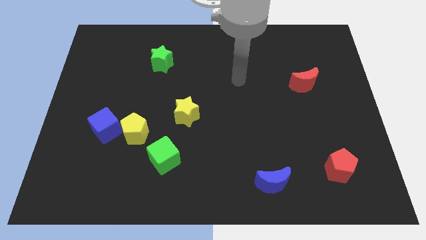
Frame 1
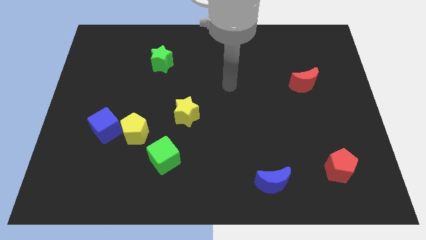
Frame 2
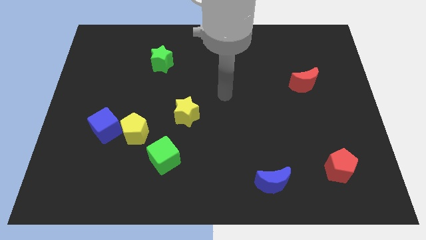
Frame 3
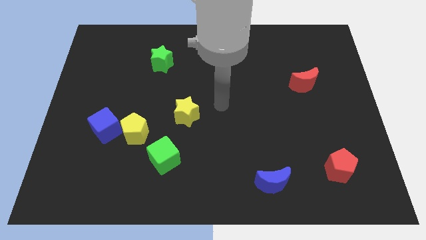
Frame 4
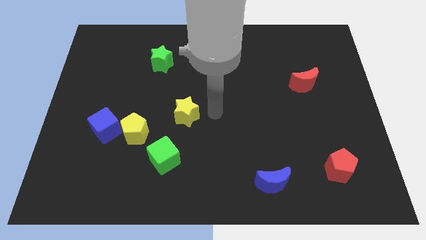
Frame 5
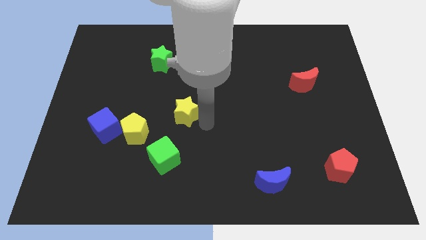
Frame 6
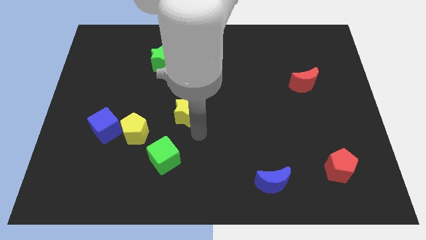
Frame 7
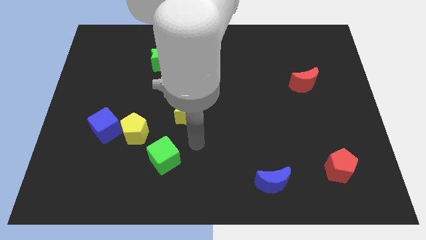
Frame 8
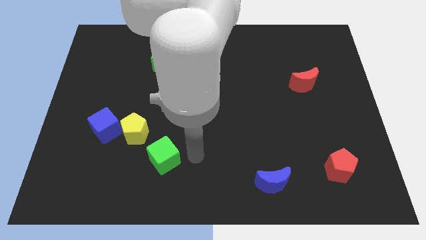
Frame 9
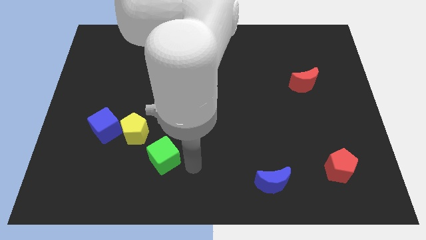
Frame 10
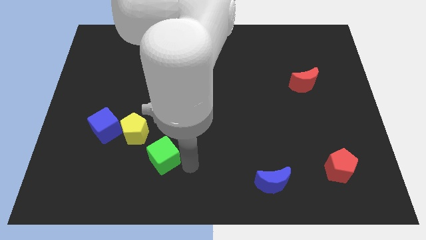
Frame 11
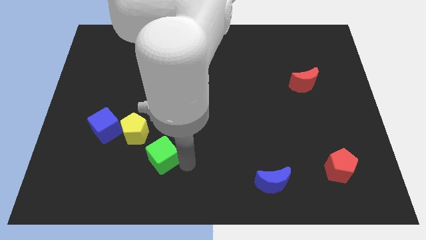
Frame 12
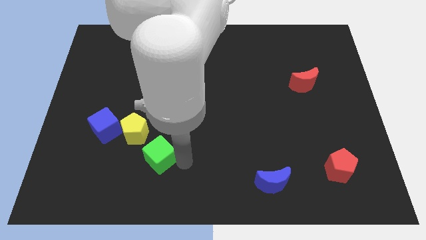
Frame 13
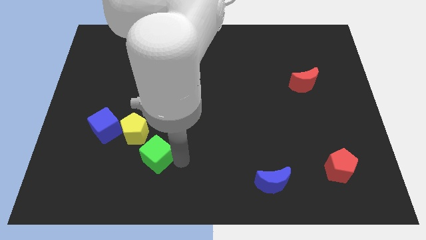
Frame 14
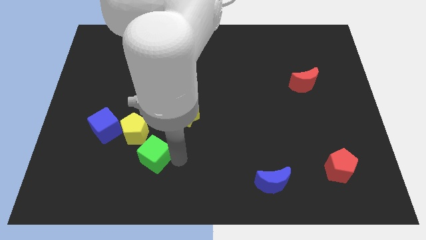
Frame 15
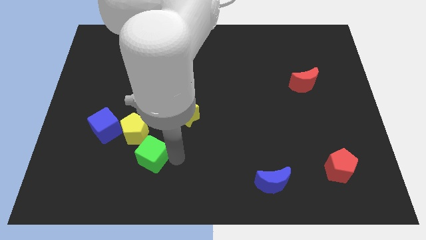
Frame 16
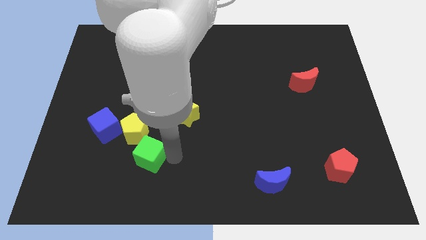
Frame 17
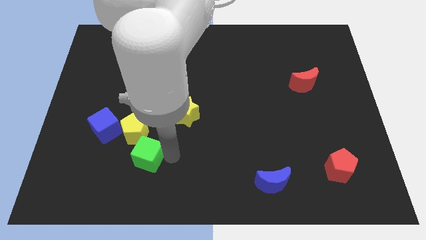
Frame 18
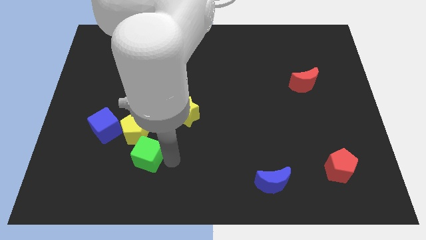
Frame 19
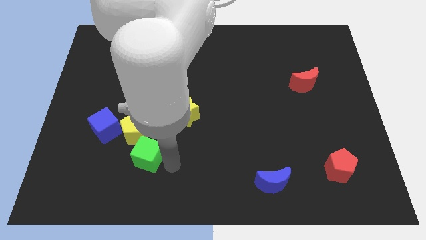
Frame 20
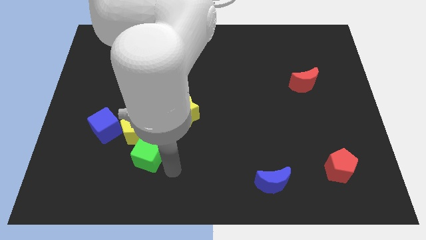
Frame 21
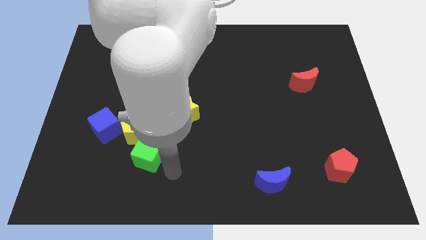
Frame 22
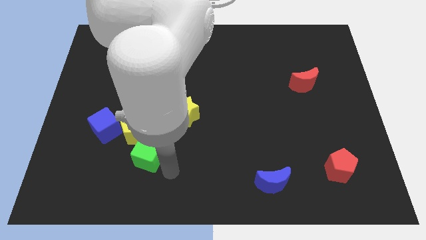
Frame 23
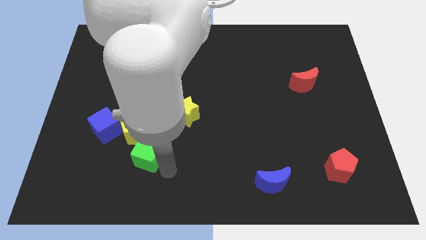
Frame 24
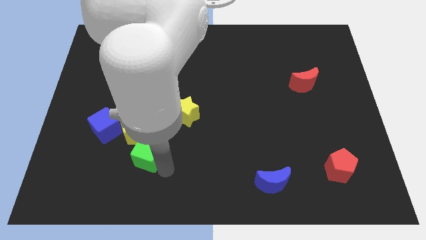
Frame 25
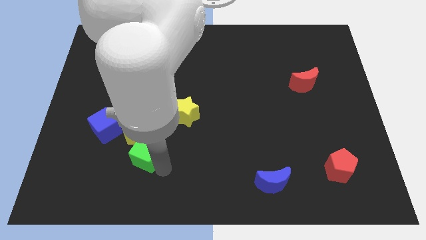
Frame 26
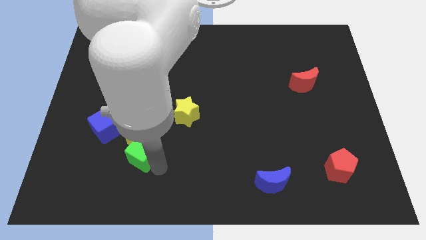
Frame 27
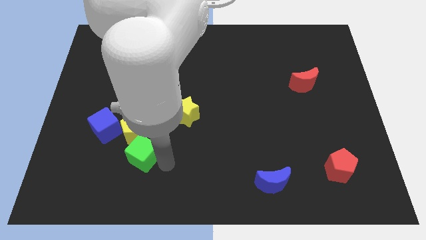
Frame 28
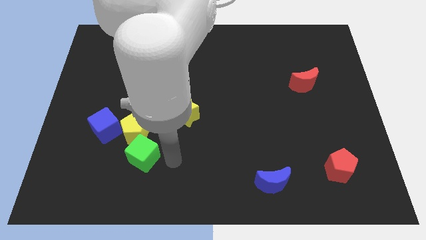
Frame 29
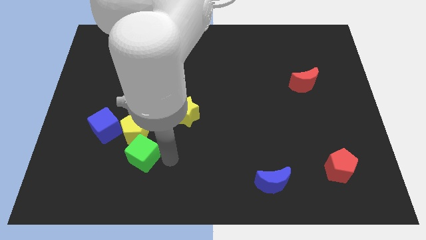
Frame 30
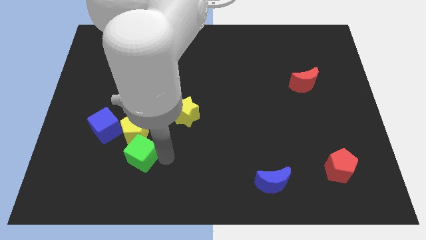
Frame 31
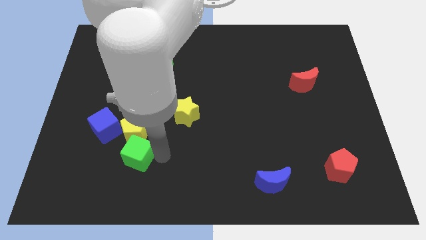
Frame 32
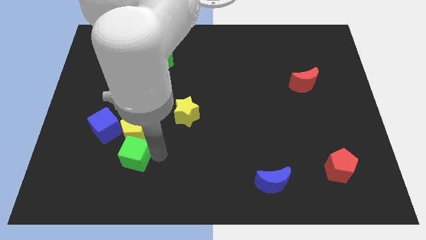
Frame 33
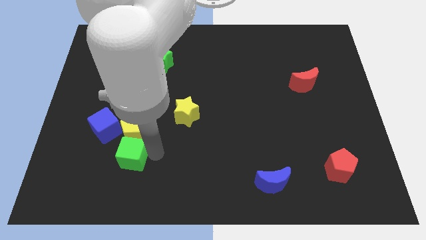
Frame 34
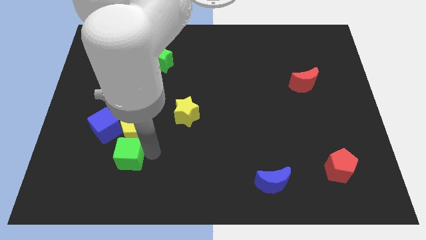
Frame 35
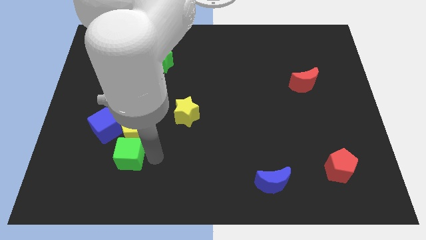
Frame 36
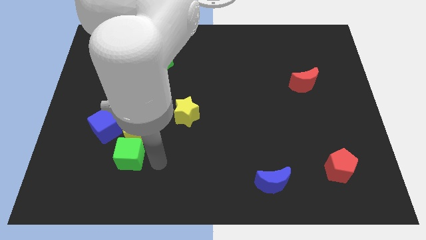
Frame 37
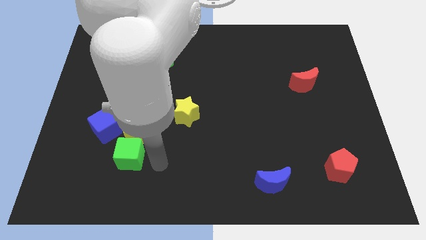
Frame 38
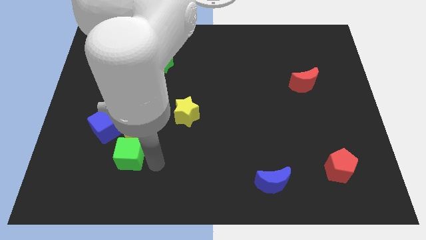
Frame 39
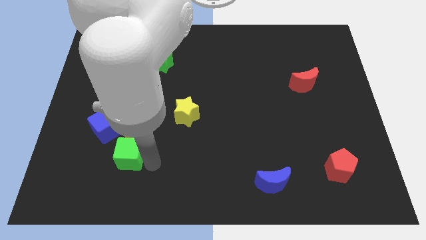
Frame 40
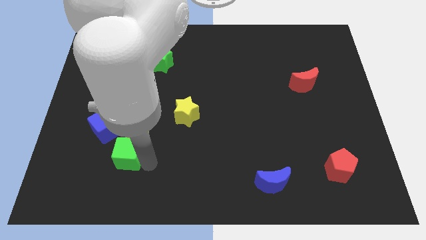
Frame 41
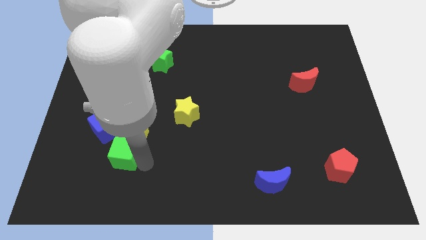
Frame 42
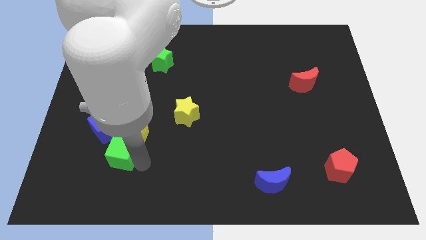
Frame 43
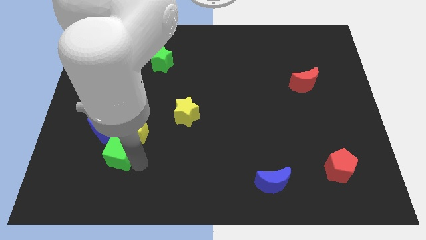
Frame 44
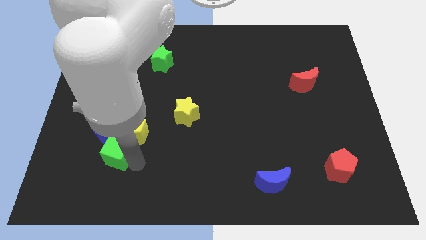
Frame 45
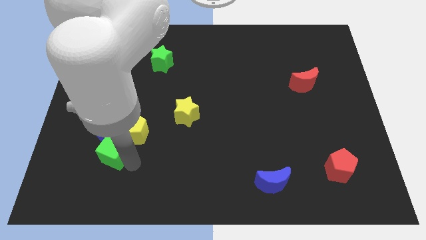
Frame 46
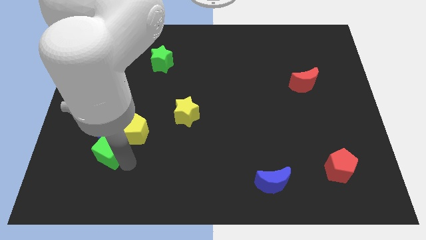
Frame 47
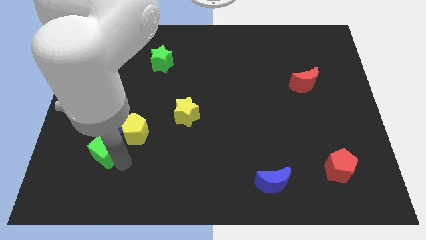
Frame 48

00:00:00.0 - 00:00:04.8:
push the green cube to the left side of the yellow pentagon

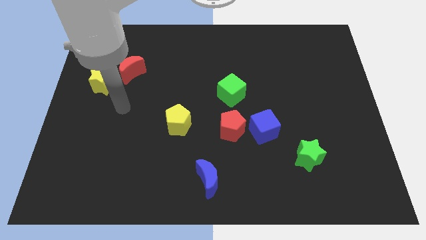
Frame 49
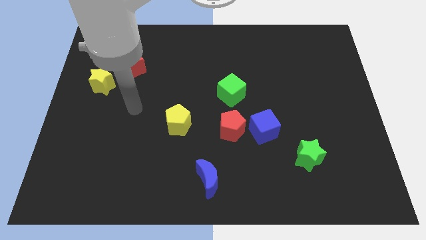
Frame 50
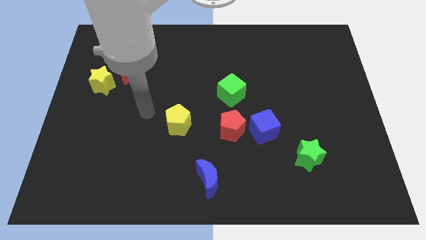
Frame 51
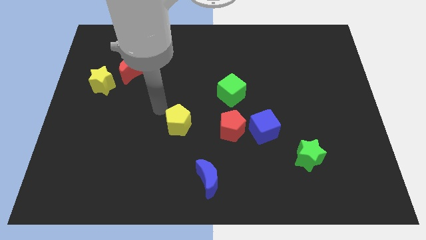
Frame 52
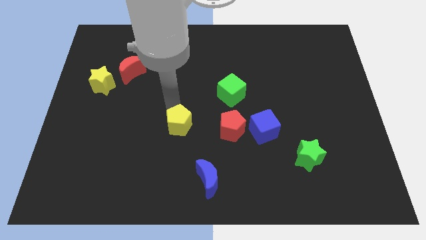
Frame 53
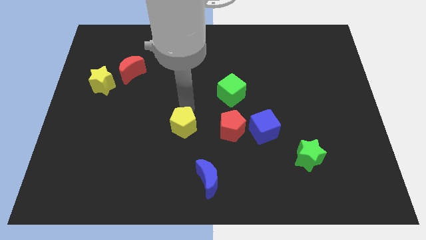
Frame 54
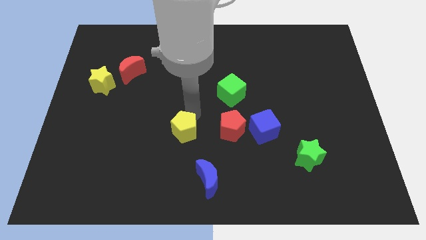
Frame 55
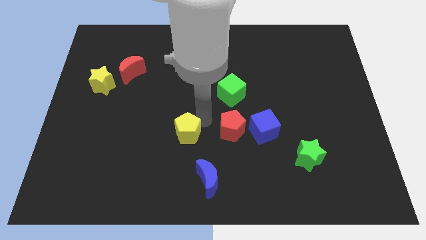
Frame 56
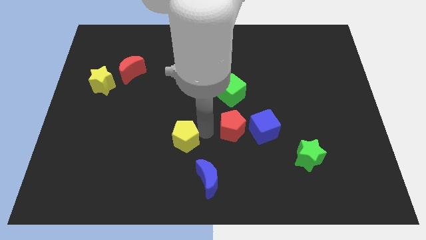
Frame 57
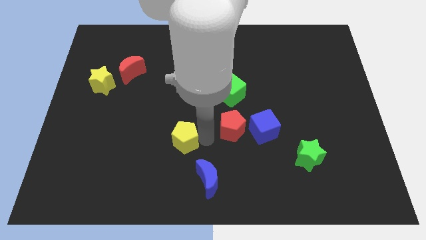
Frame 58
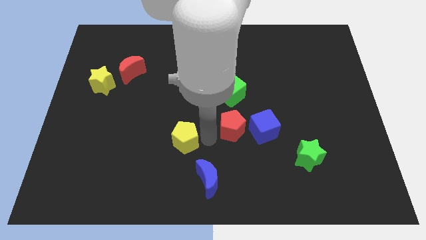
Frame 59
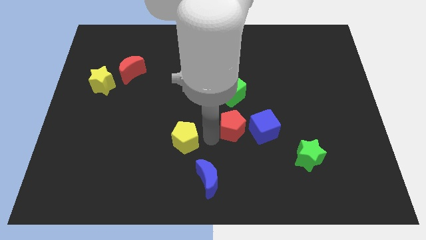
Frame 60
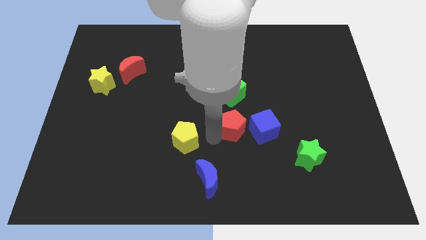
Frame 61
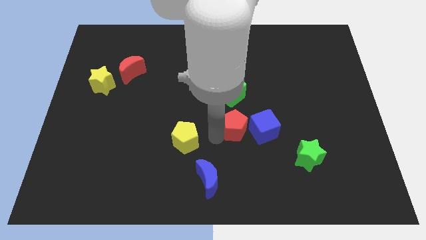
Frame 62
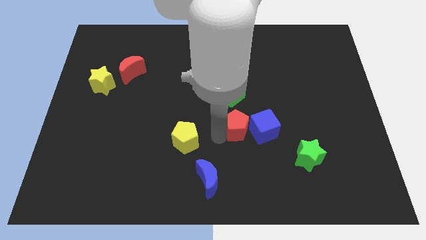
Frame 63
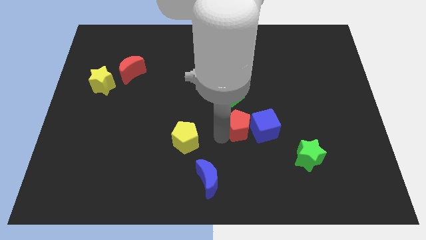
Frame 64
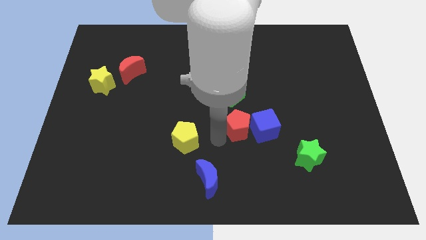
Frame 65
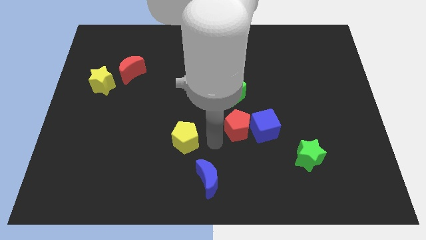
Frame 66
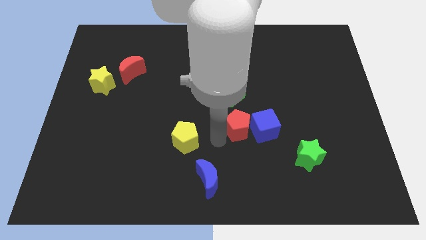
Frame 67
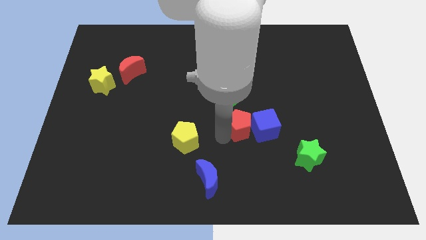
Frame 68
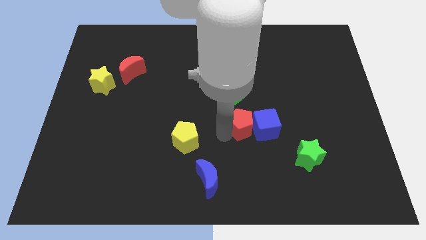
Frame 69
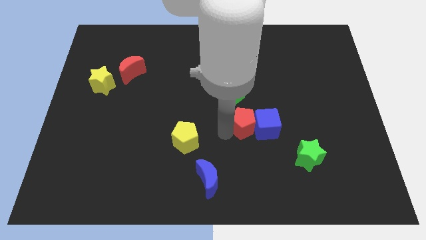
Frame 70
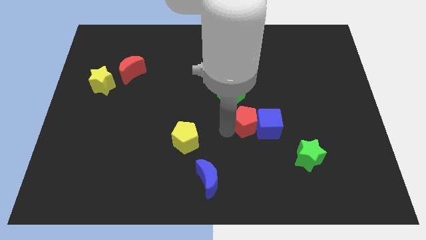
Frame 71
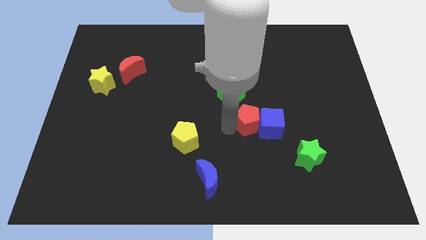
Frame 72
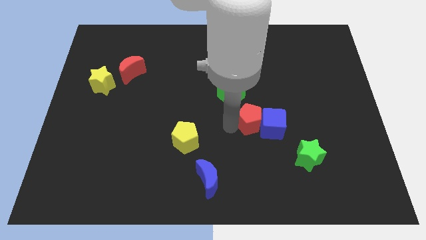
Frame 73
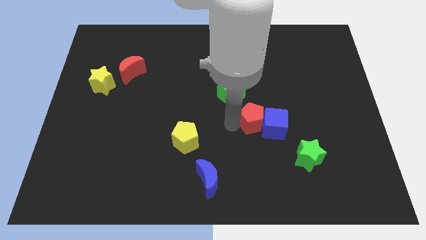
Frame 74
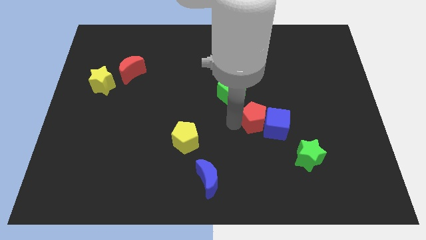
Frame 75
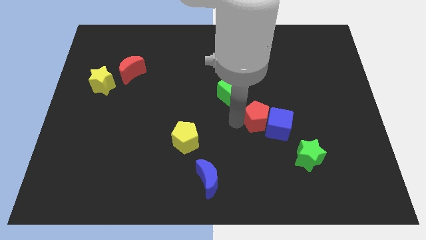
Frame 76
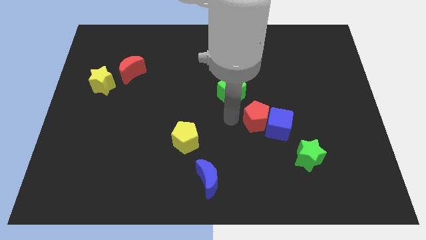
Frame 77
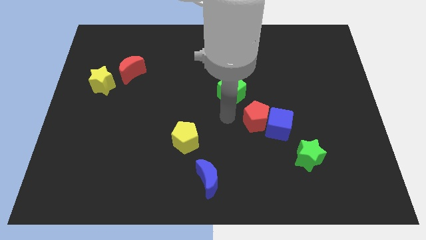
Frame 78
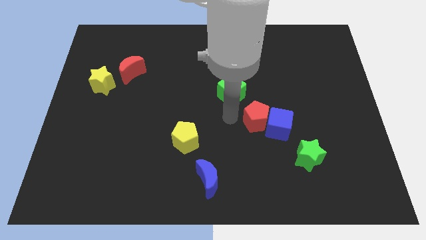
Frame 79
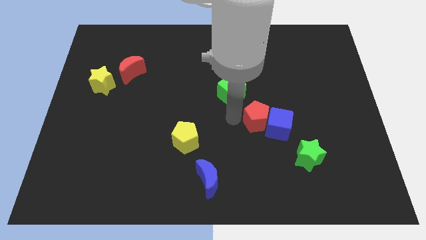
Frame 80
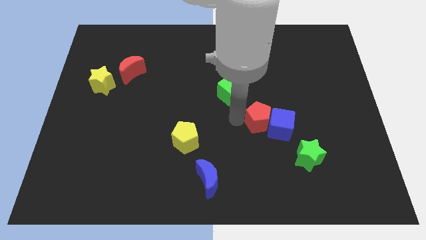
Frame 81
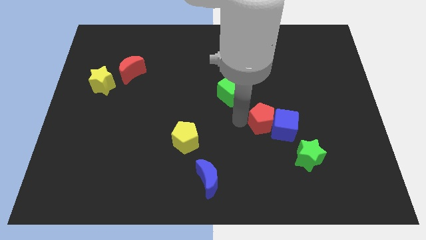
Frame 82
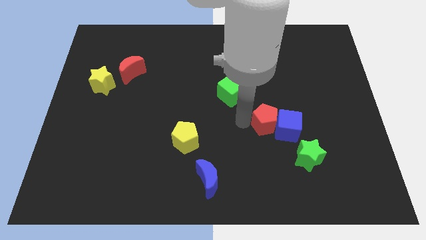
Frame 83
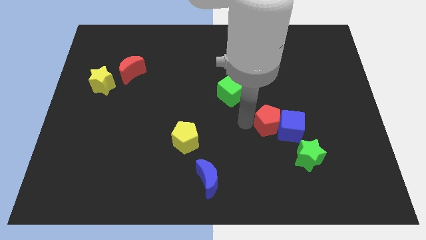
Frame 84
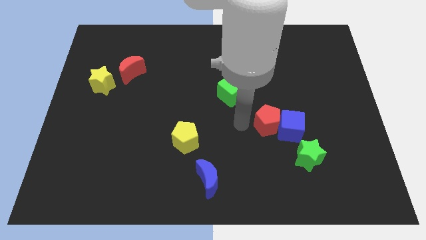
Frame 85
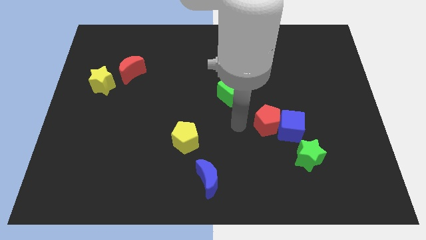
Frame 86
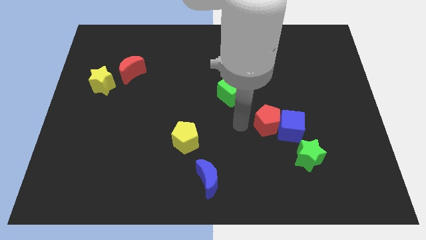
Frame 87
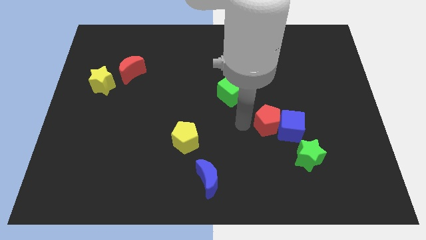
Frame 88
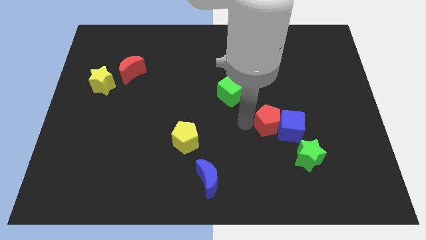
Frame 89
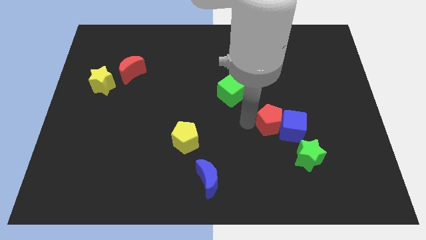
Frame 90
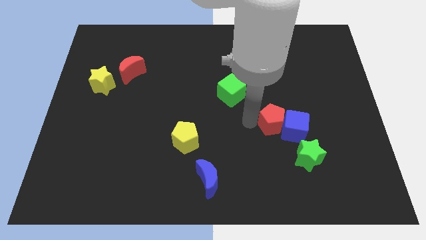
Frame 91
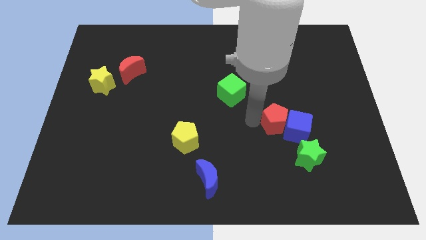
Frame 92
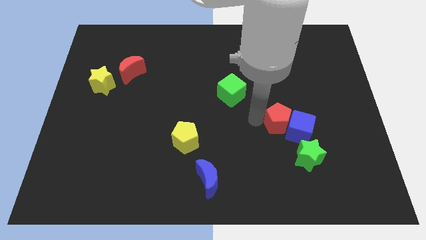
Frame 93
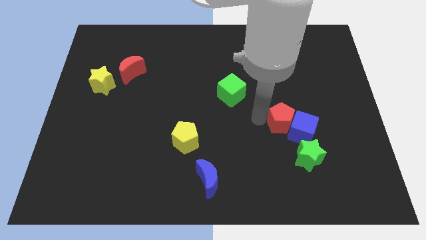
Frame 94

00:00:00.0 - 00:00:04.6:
move the red pentagon to the top side of the green star
